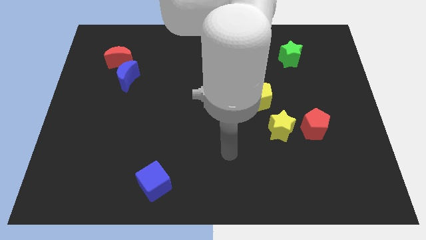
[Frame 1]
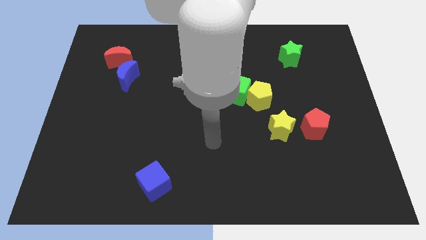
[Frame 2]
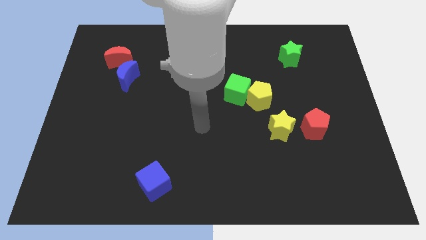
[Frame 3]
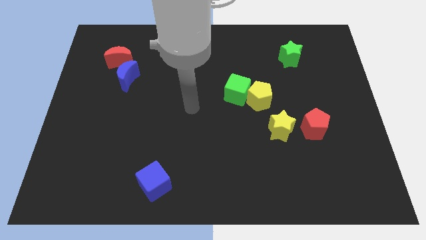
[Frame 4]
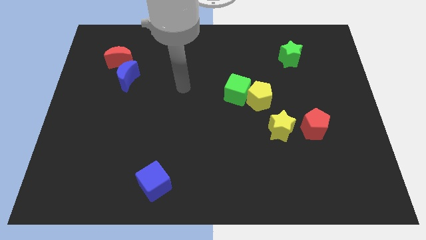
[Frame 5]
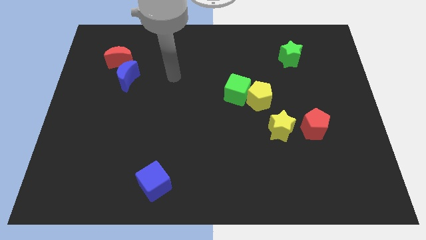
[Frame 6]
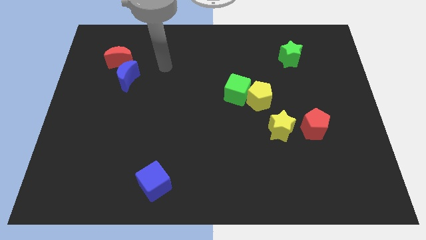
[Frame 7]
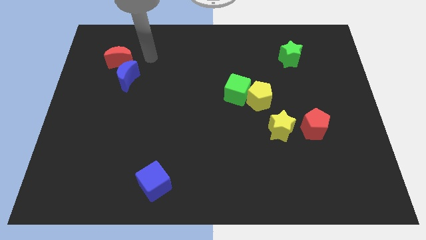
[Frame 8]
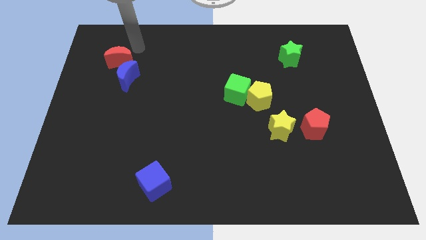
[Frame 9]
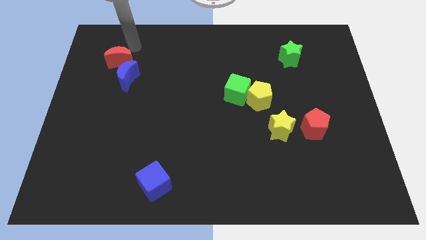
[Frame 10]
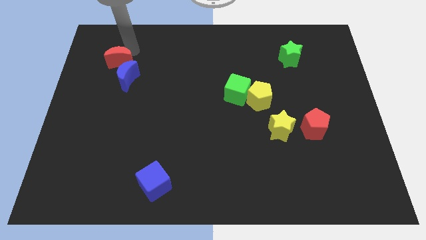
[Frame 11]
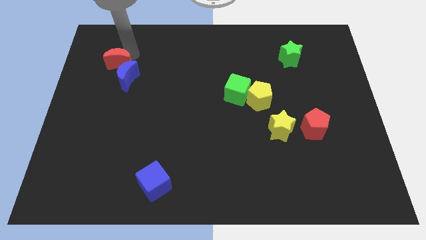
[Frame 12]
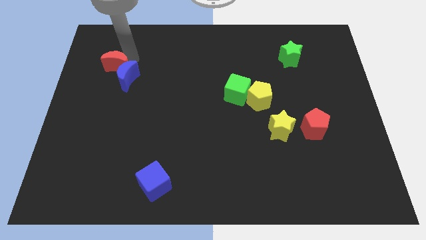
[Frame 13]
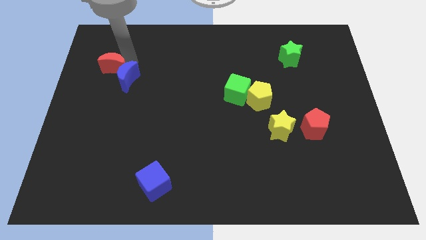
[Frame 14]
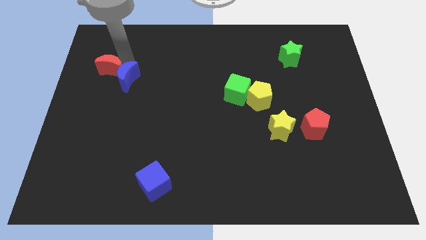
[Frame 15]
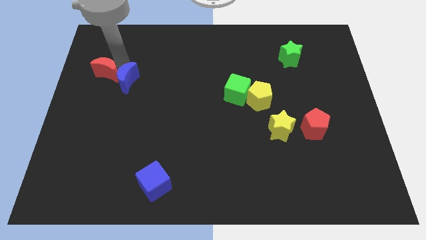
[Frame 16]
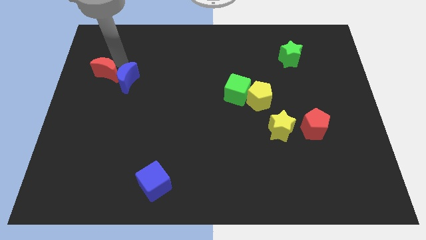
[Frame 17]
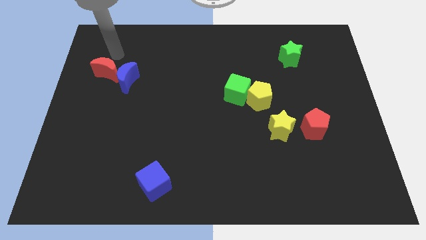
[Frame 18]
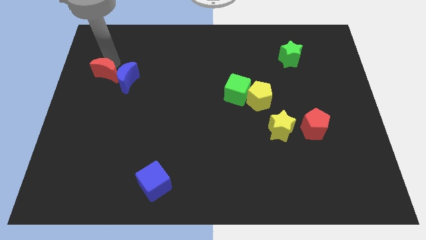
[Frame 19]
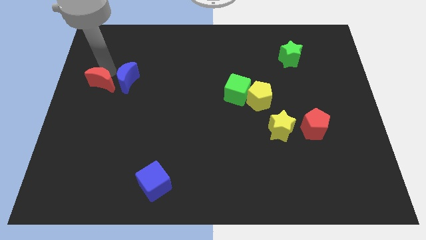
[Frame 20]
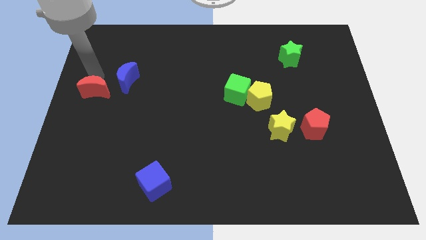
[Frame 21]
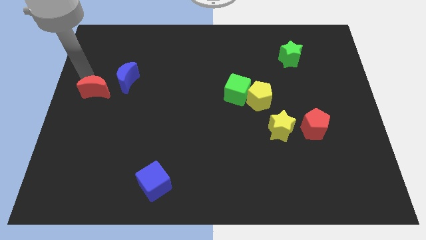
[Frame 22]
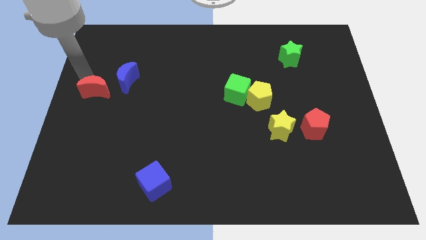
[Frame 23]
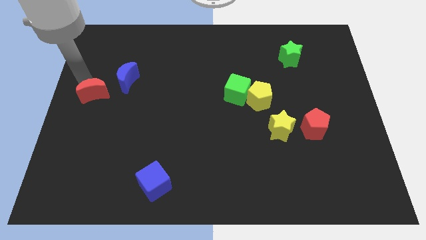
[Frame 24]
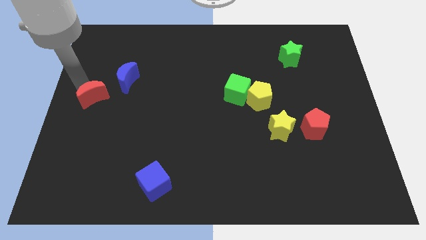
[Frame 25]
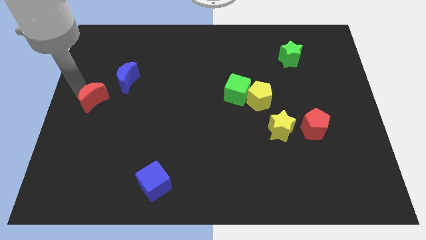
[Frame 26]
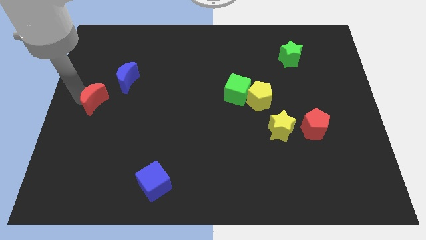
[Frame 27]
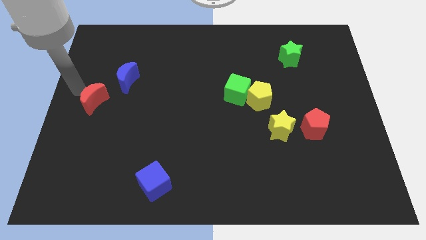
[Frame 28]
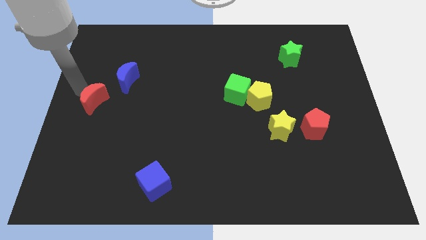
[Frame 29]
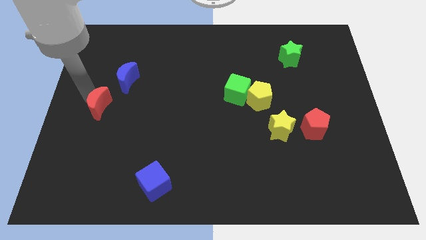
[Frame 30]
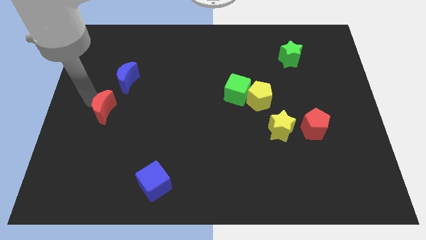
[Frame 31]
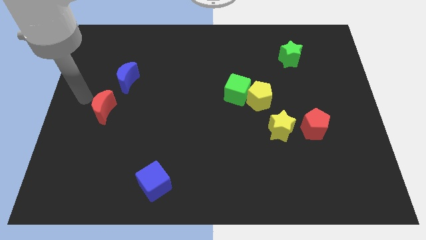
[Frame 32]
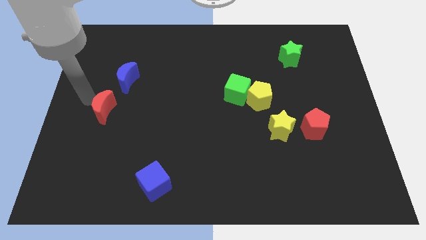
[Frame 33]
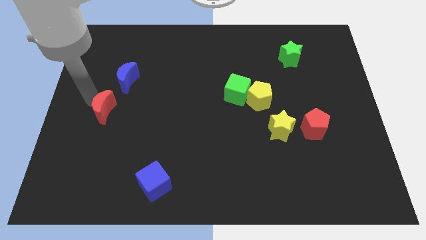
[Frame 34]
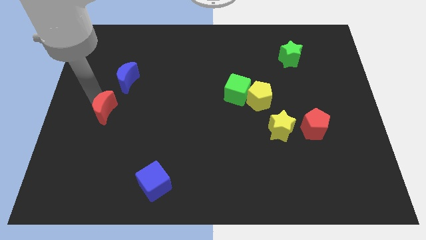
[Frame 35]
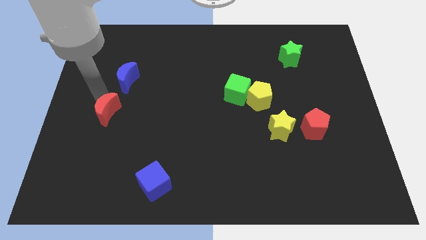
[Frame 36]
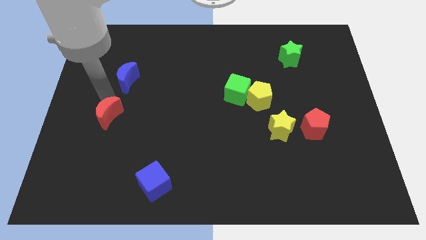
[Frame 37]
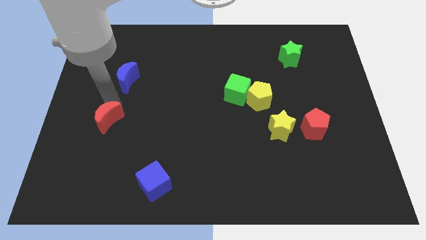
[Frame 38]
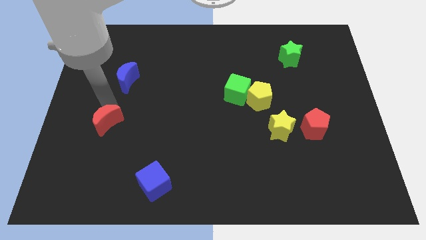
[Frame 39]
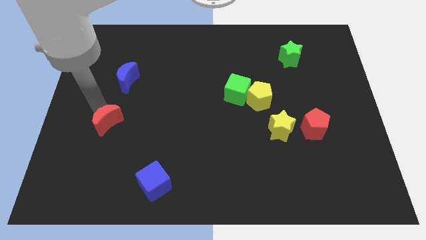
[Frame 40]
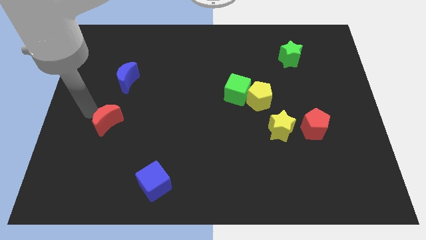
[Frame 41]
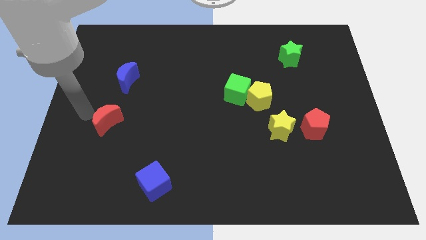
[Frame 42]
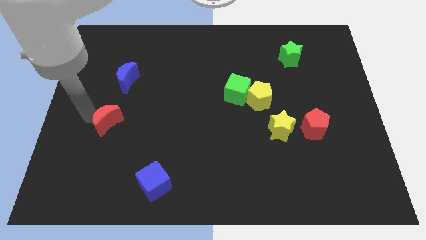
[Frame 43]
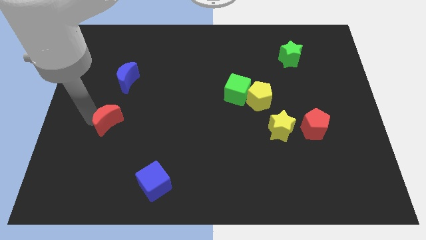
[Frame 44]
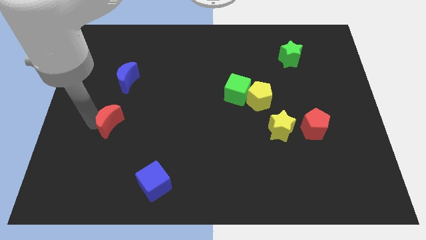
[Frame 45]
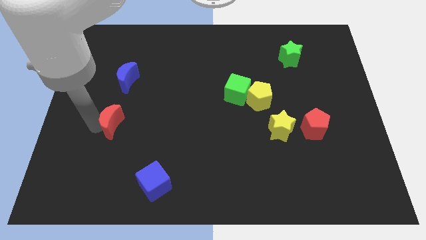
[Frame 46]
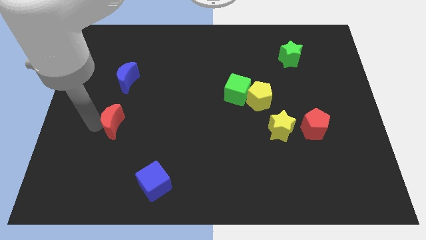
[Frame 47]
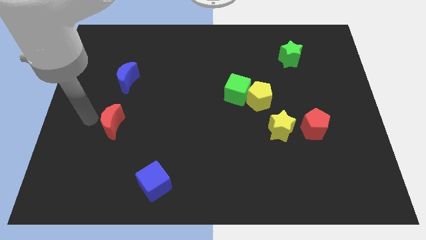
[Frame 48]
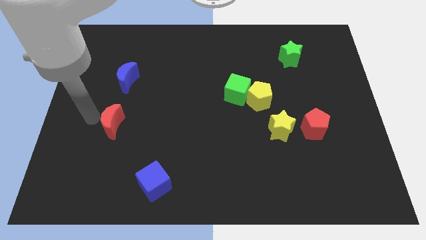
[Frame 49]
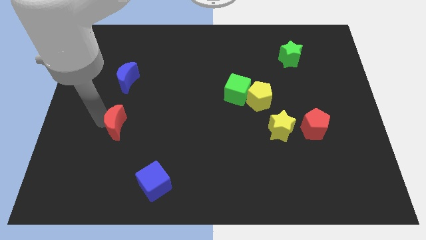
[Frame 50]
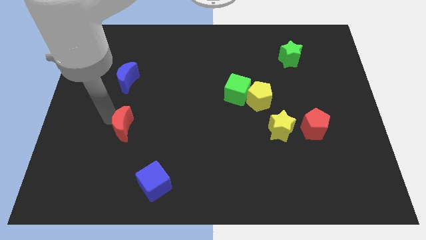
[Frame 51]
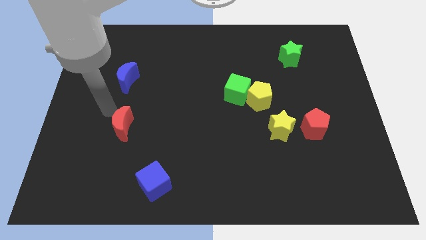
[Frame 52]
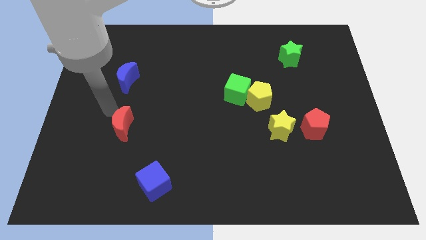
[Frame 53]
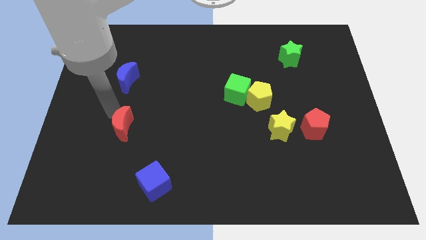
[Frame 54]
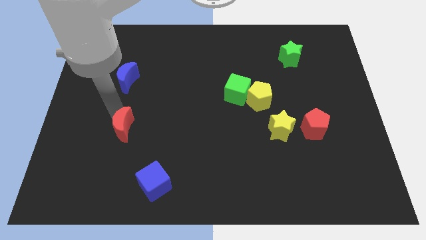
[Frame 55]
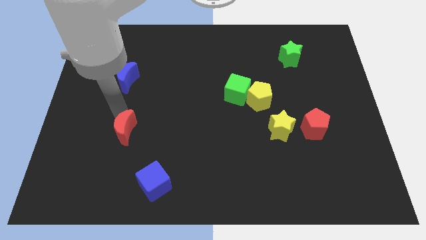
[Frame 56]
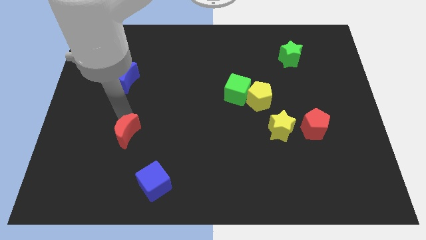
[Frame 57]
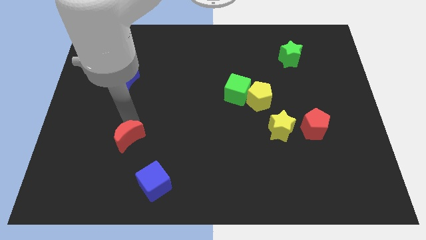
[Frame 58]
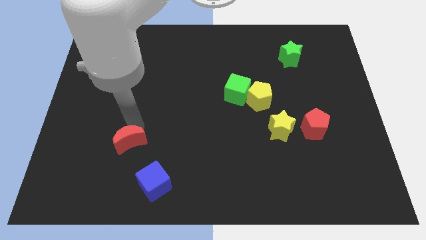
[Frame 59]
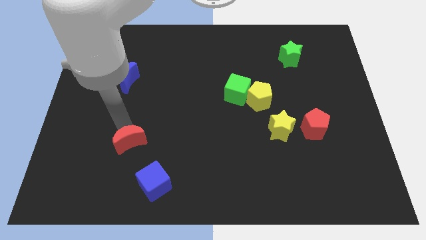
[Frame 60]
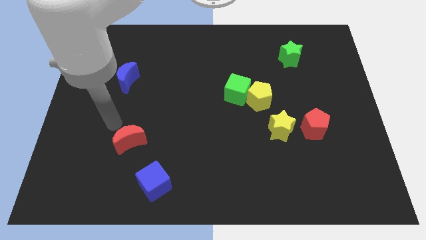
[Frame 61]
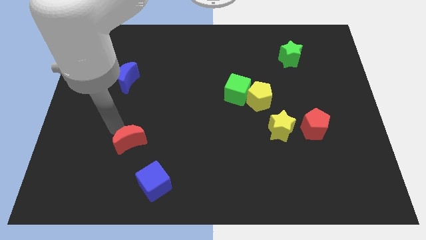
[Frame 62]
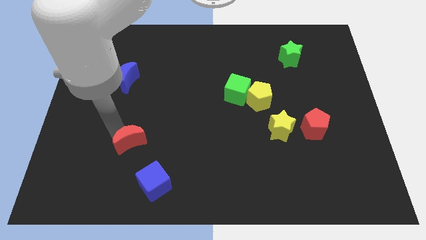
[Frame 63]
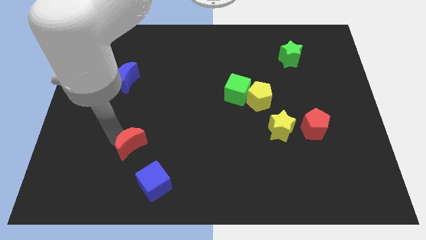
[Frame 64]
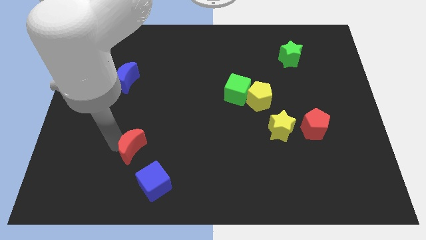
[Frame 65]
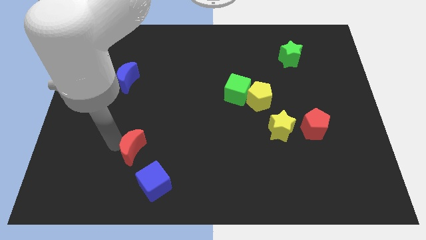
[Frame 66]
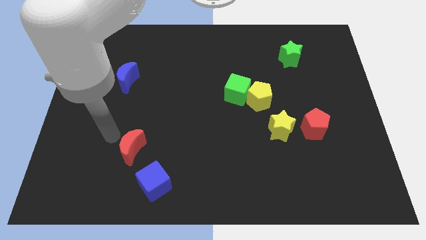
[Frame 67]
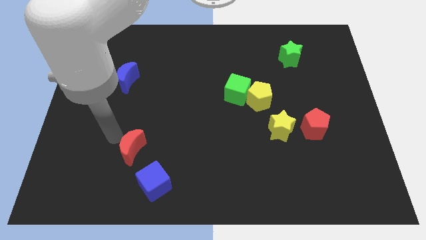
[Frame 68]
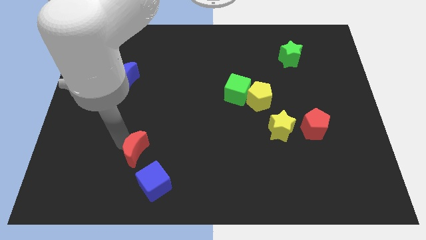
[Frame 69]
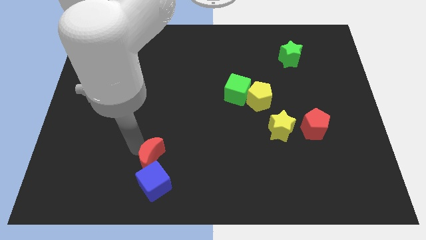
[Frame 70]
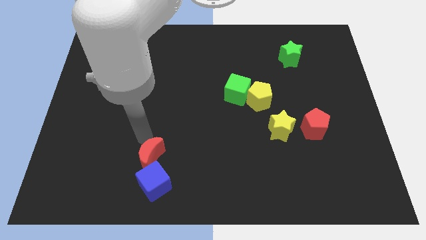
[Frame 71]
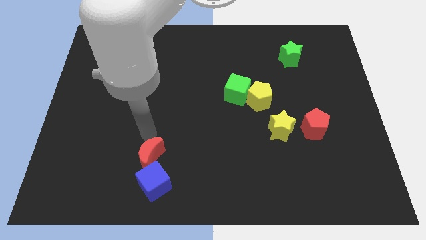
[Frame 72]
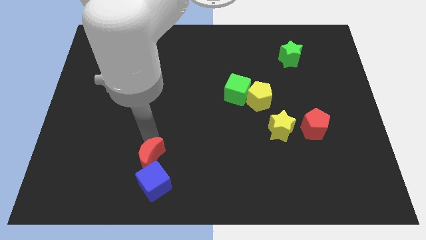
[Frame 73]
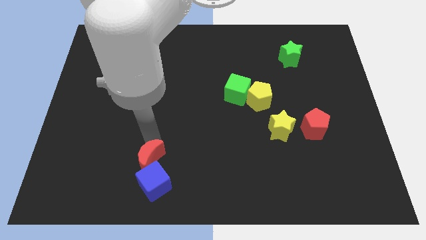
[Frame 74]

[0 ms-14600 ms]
move the red moon close to the blue cube

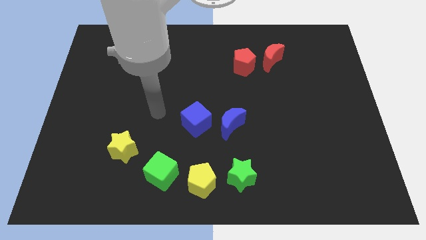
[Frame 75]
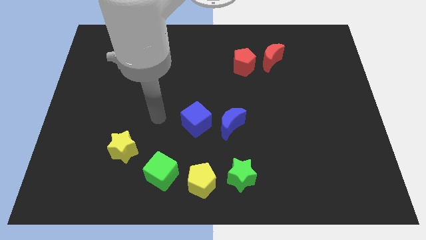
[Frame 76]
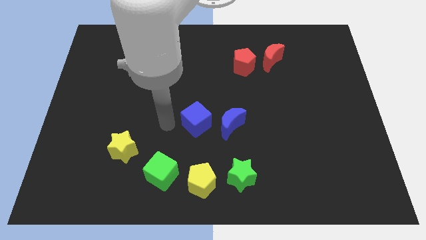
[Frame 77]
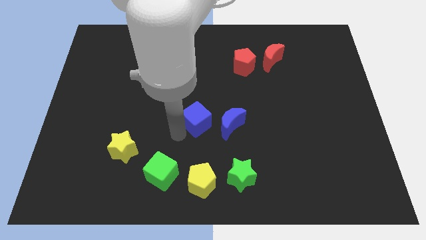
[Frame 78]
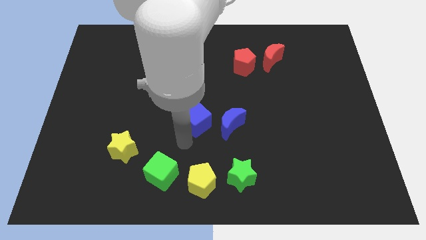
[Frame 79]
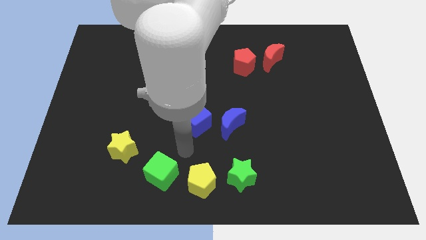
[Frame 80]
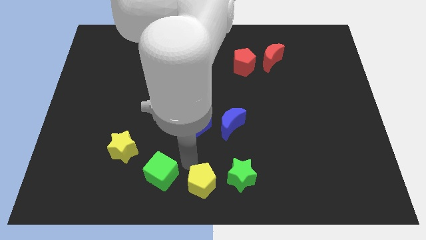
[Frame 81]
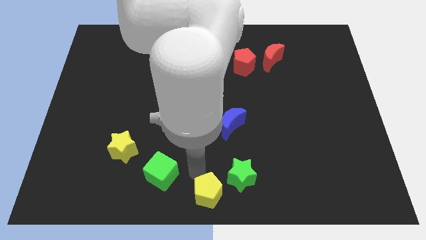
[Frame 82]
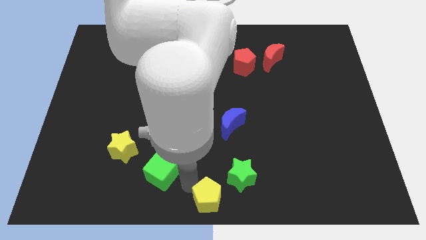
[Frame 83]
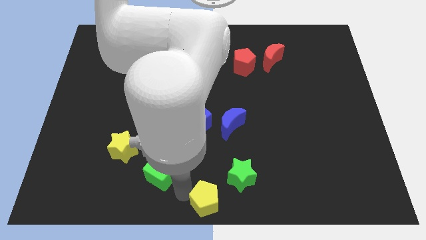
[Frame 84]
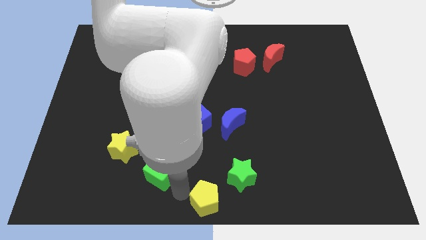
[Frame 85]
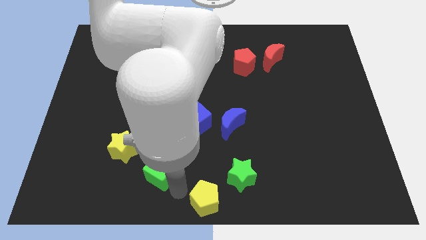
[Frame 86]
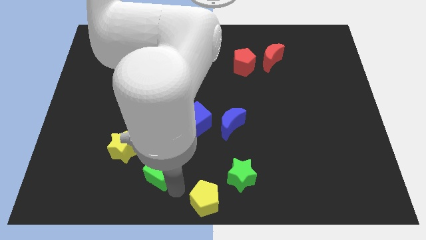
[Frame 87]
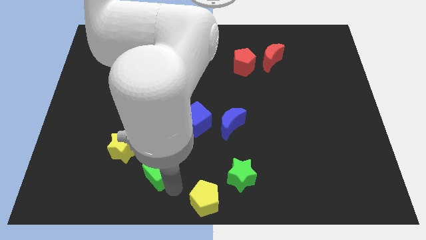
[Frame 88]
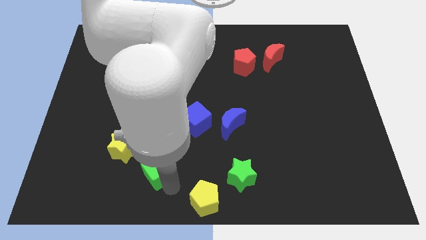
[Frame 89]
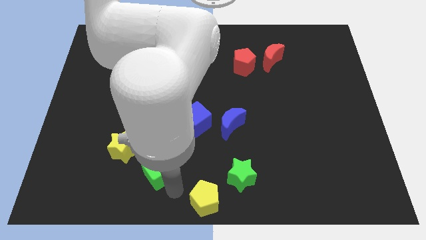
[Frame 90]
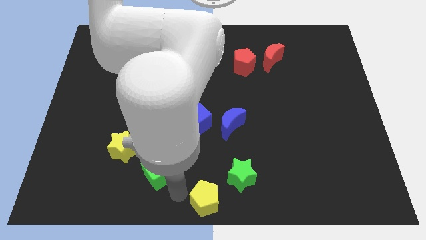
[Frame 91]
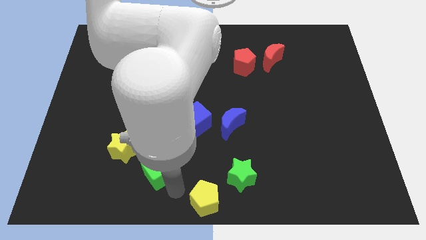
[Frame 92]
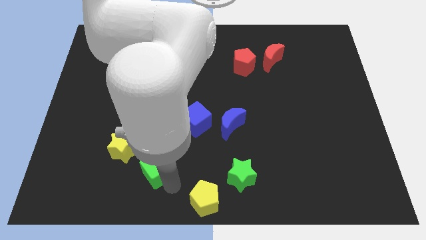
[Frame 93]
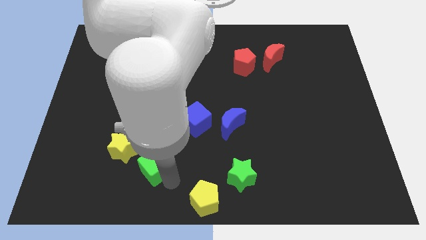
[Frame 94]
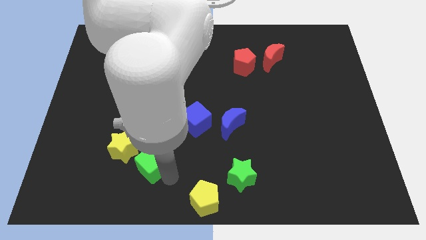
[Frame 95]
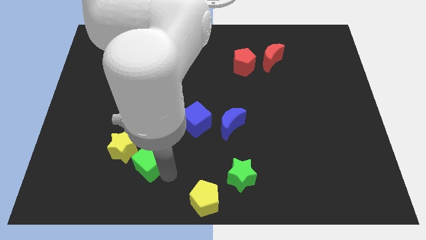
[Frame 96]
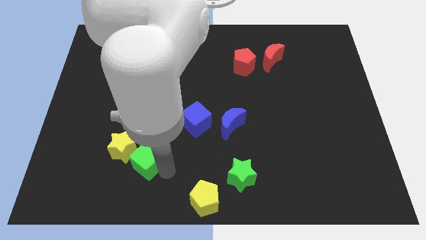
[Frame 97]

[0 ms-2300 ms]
push the green cube towards the yellow star
